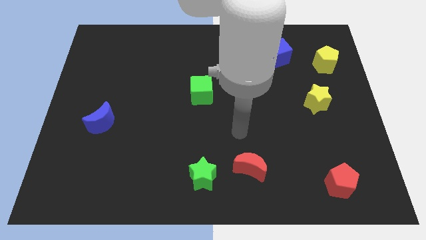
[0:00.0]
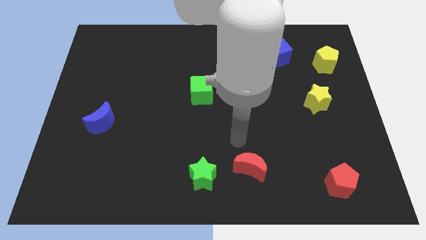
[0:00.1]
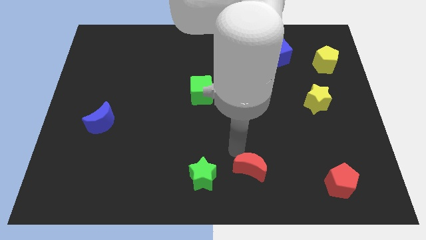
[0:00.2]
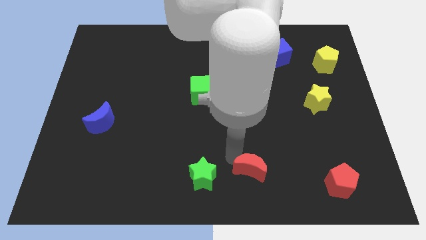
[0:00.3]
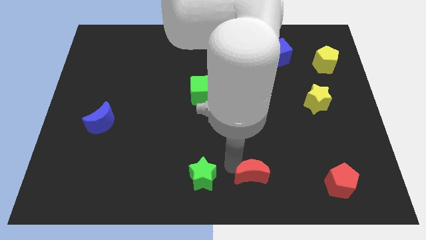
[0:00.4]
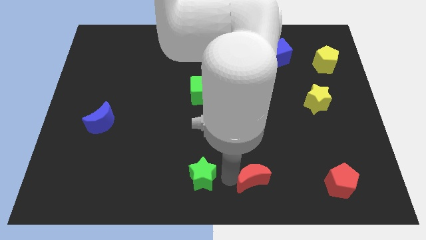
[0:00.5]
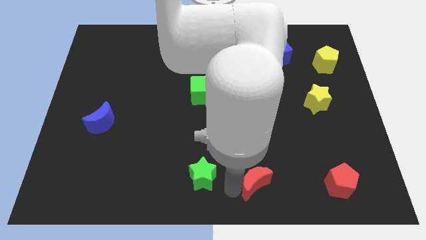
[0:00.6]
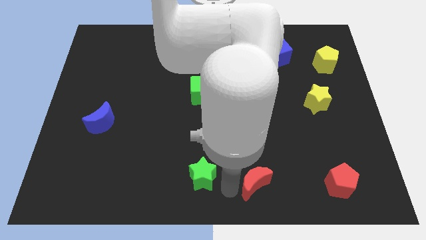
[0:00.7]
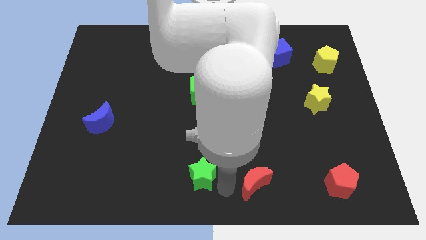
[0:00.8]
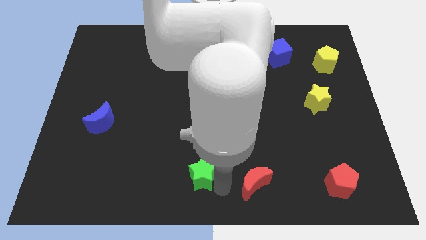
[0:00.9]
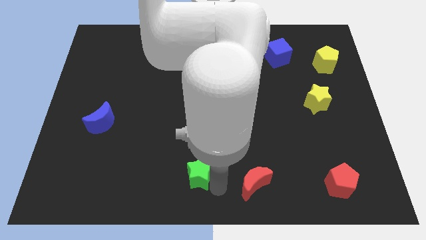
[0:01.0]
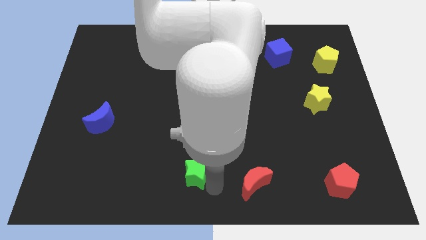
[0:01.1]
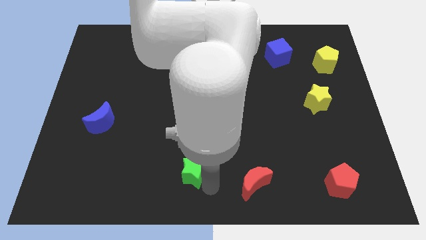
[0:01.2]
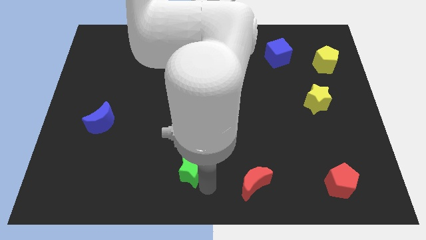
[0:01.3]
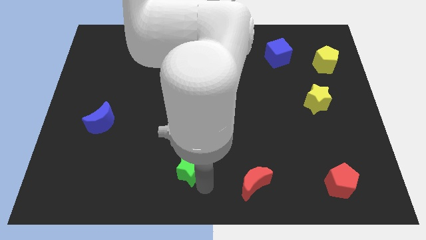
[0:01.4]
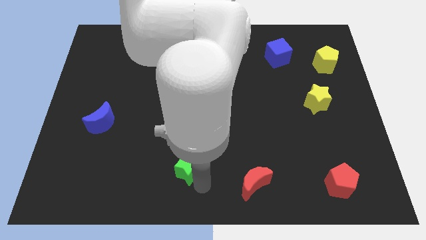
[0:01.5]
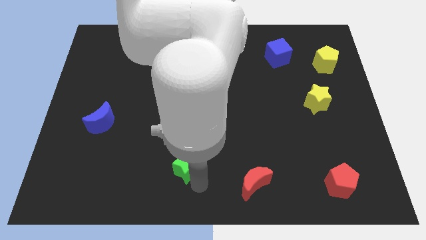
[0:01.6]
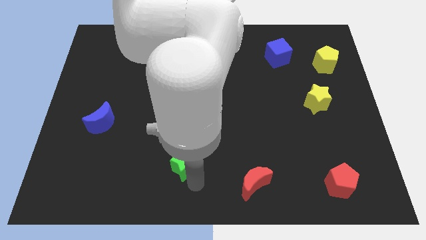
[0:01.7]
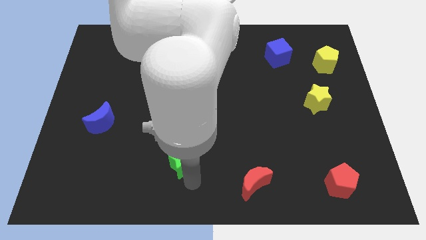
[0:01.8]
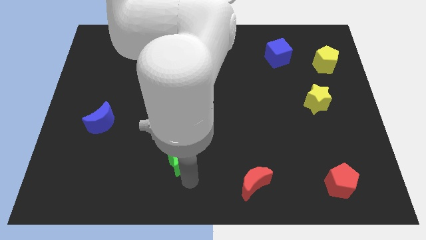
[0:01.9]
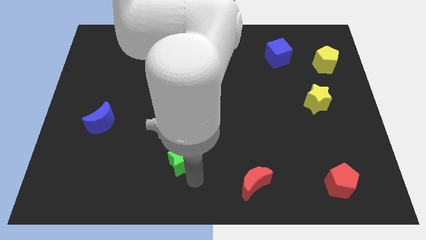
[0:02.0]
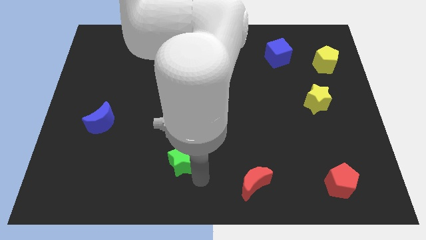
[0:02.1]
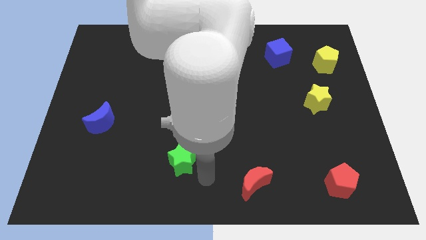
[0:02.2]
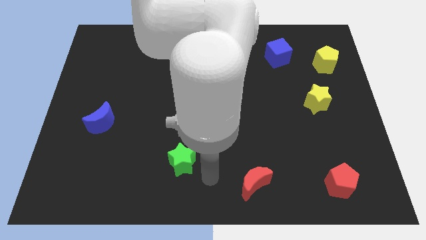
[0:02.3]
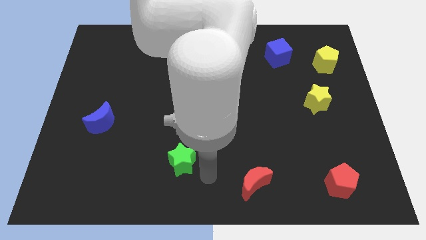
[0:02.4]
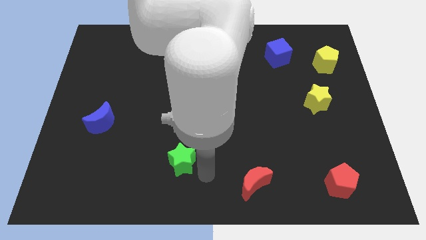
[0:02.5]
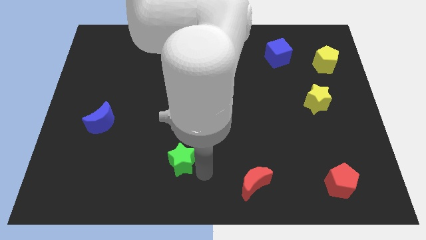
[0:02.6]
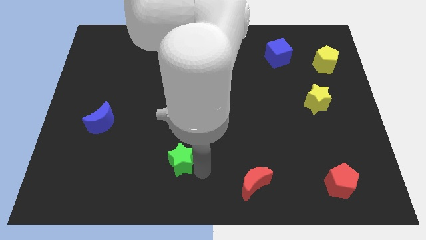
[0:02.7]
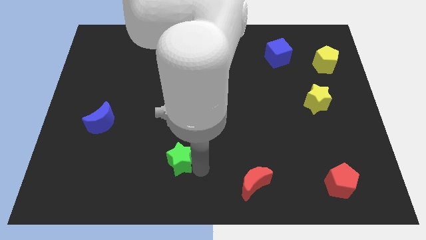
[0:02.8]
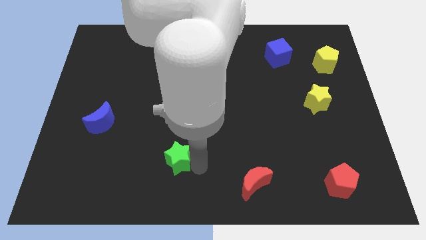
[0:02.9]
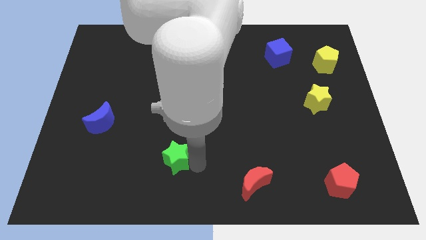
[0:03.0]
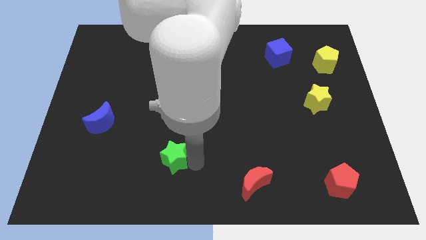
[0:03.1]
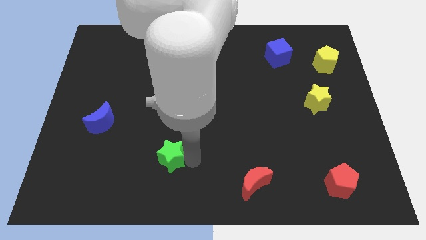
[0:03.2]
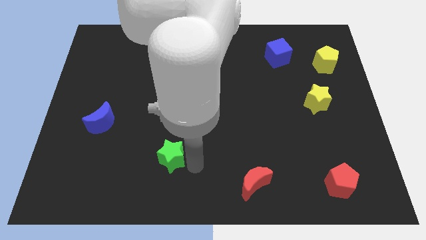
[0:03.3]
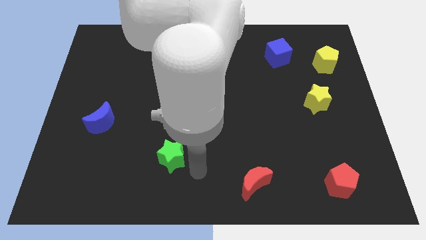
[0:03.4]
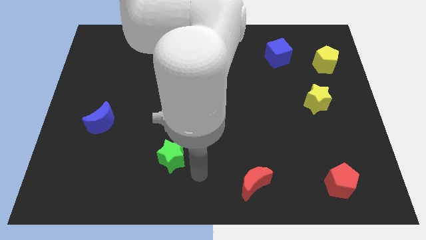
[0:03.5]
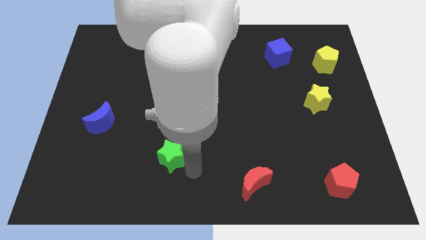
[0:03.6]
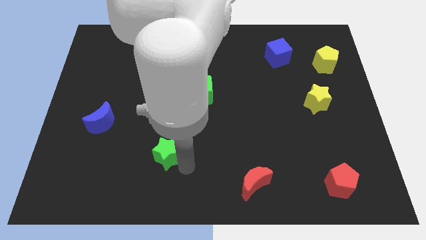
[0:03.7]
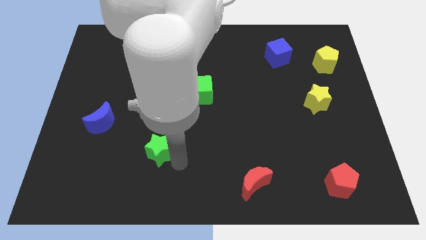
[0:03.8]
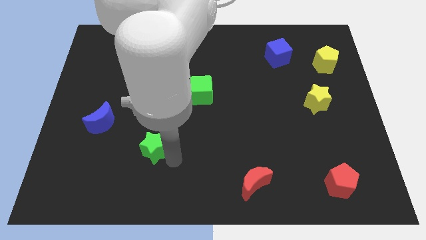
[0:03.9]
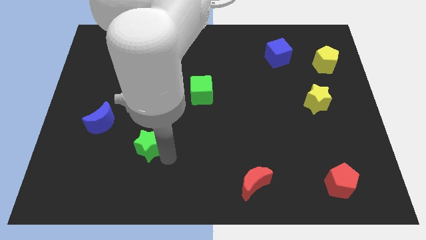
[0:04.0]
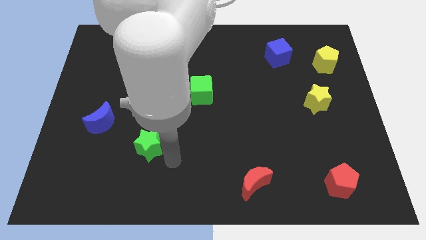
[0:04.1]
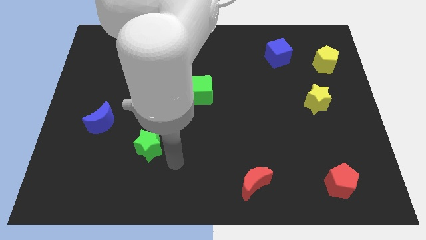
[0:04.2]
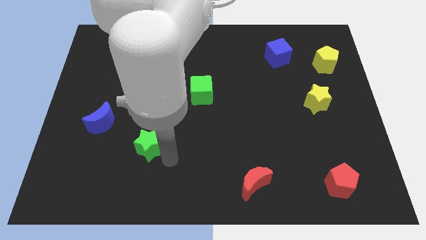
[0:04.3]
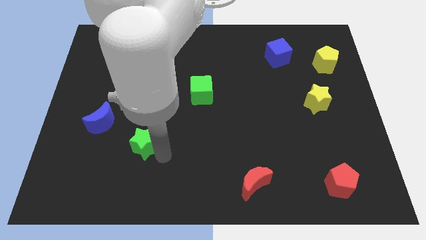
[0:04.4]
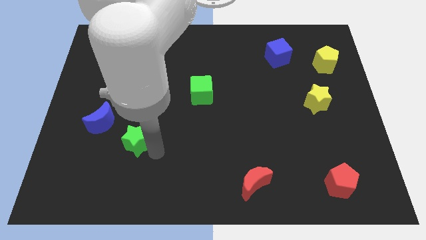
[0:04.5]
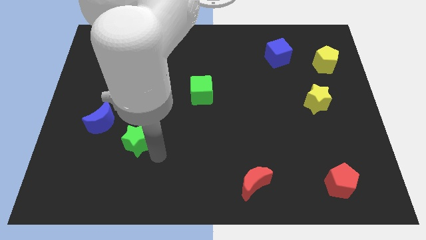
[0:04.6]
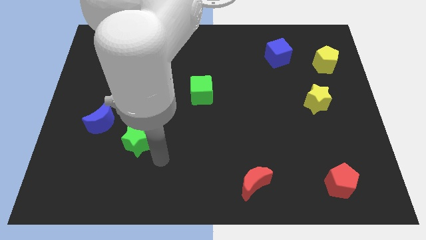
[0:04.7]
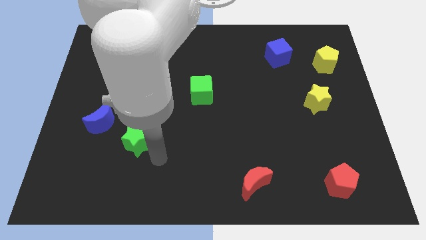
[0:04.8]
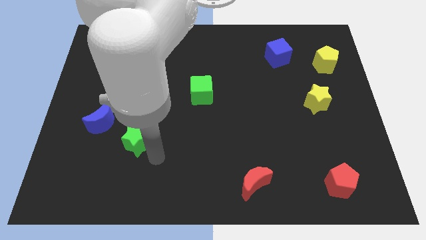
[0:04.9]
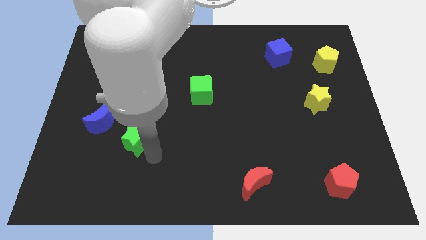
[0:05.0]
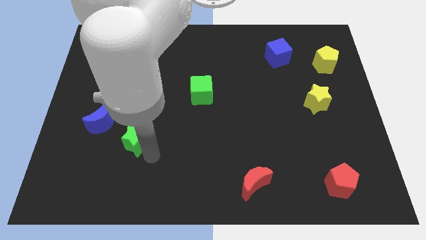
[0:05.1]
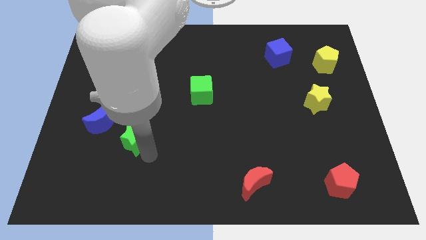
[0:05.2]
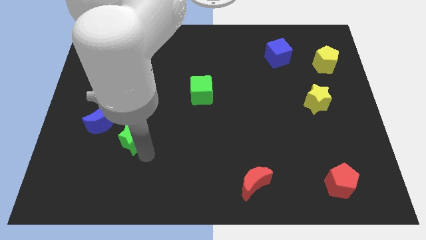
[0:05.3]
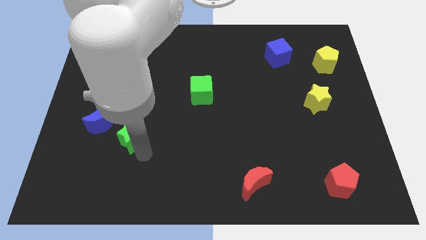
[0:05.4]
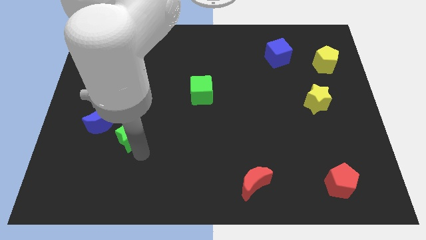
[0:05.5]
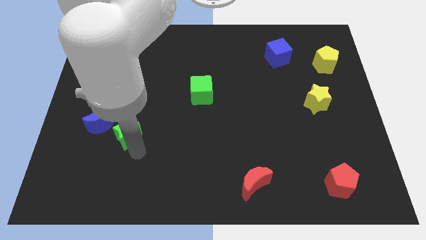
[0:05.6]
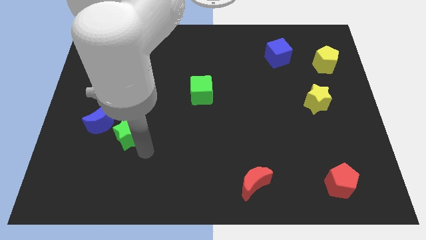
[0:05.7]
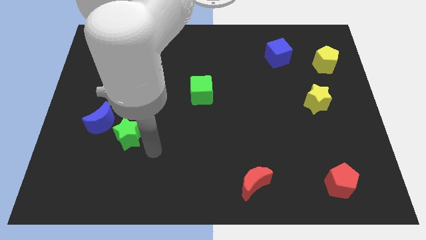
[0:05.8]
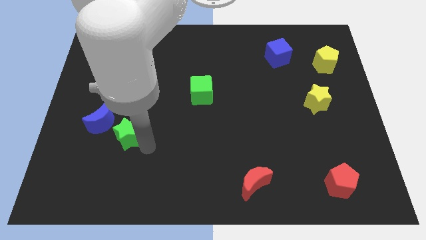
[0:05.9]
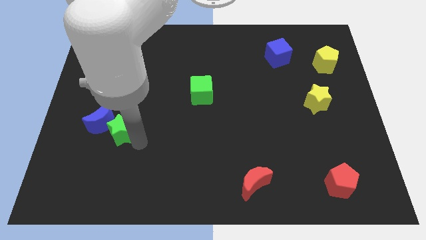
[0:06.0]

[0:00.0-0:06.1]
slide the green star to the blue moon
